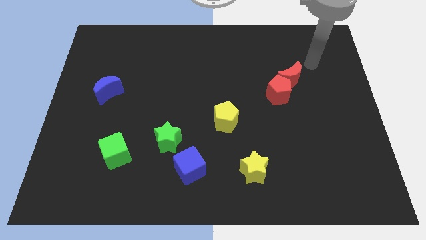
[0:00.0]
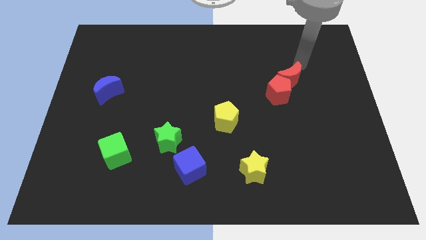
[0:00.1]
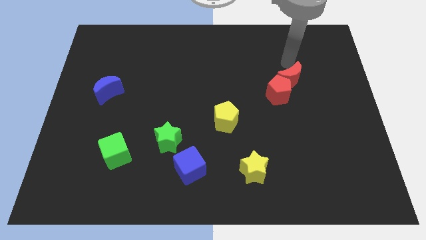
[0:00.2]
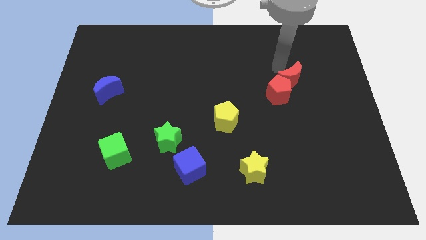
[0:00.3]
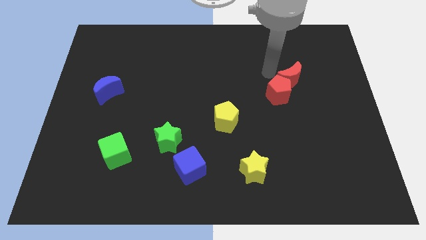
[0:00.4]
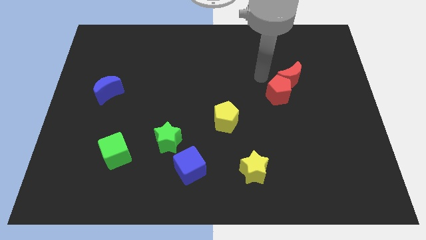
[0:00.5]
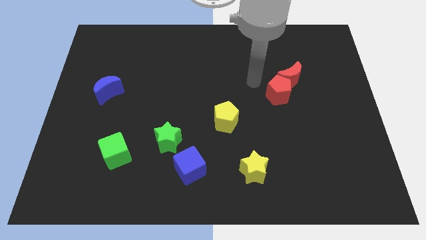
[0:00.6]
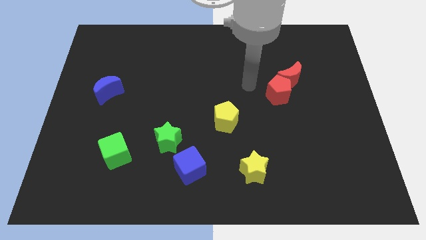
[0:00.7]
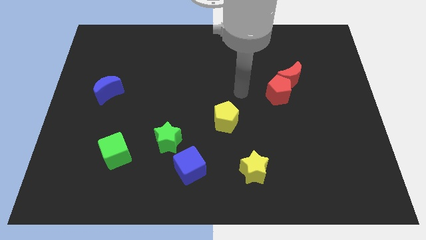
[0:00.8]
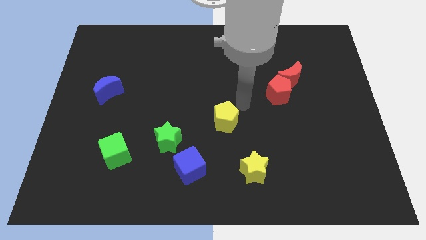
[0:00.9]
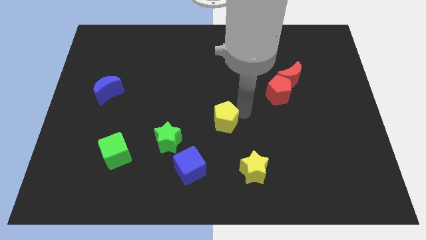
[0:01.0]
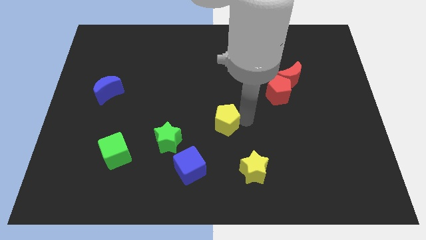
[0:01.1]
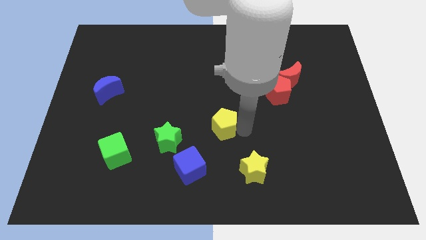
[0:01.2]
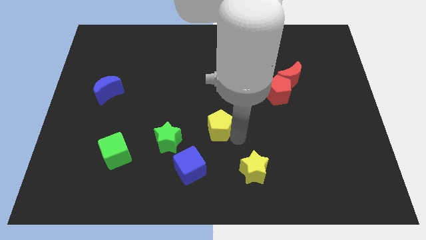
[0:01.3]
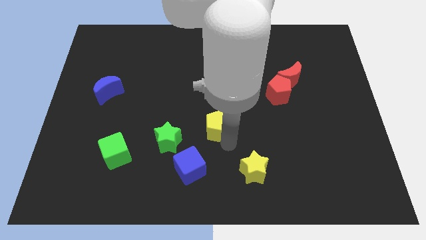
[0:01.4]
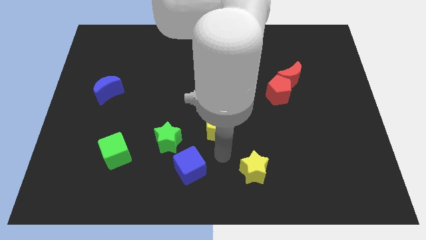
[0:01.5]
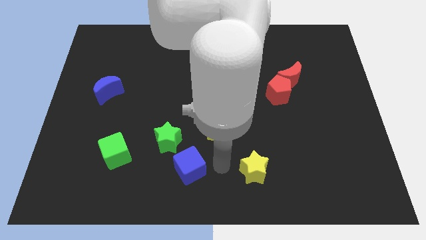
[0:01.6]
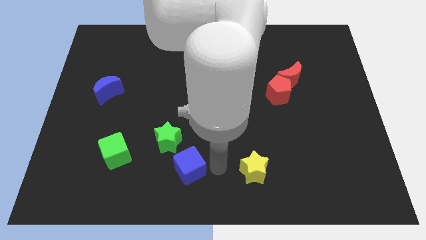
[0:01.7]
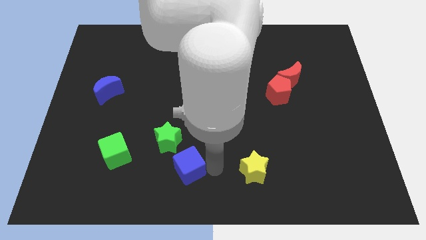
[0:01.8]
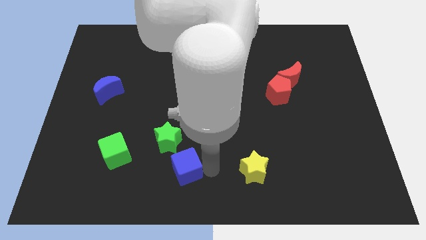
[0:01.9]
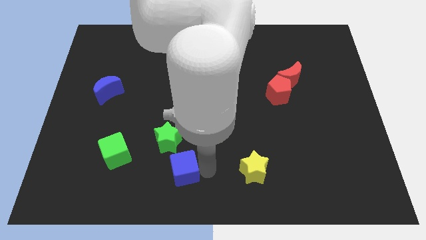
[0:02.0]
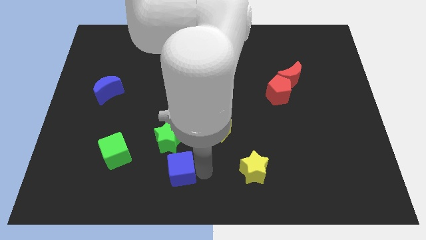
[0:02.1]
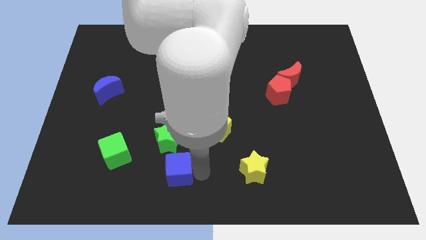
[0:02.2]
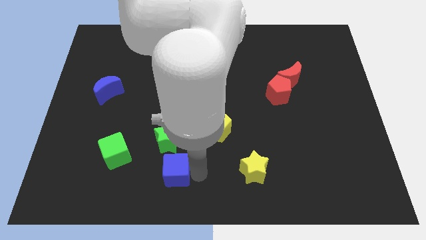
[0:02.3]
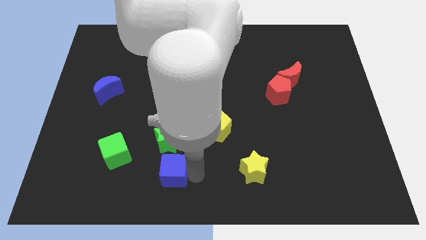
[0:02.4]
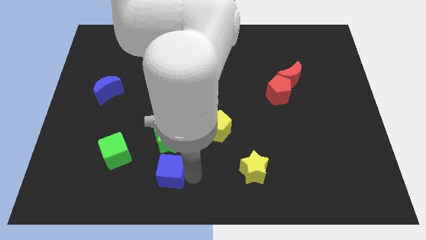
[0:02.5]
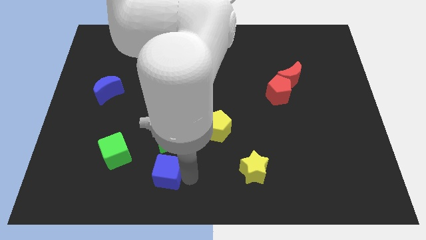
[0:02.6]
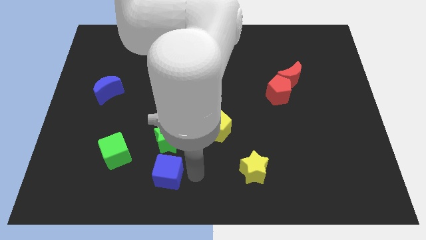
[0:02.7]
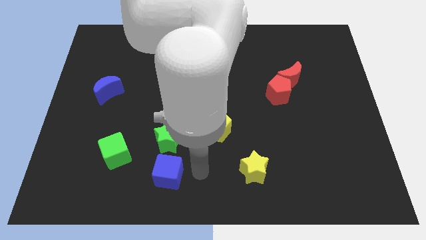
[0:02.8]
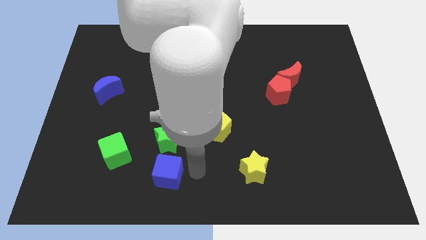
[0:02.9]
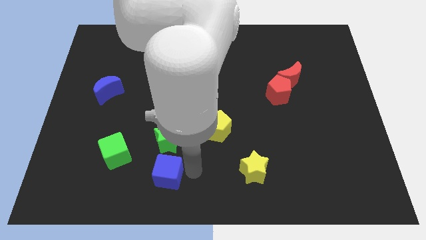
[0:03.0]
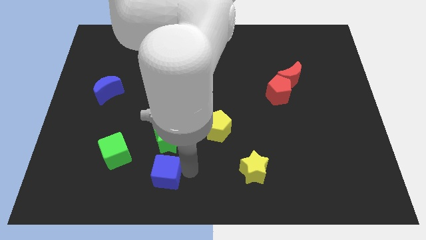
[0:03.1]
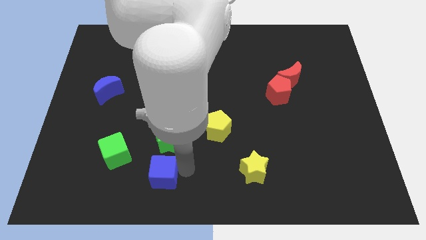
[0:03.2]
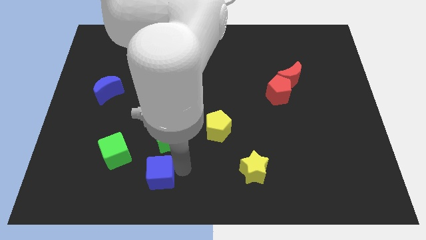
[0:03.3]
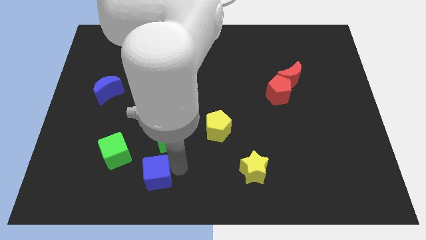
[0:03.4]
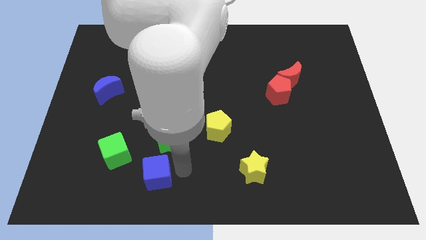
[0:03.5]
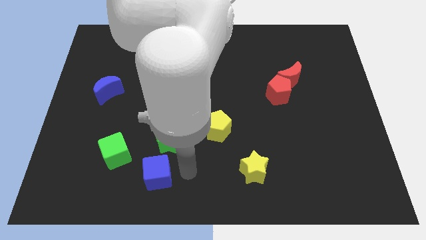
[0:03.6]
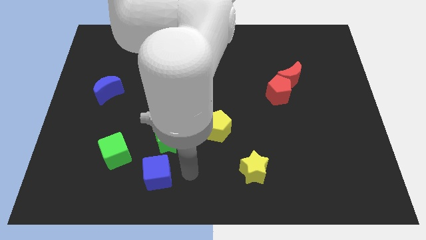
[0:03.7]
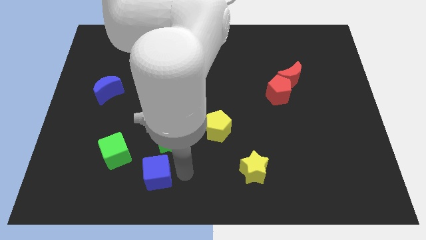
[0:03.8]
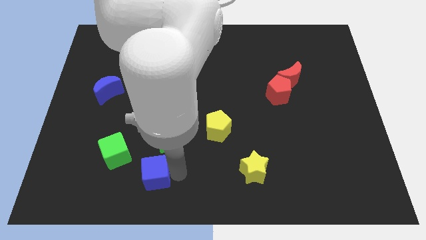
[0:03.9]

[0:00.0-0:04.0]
slightly move the blue cube left

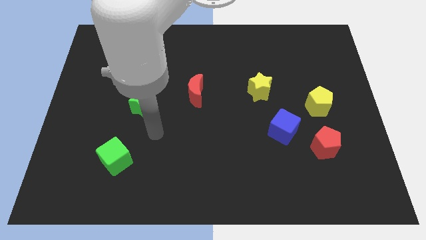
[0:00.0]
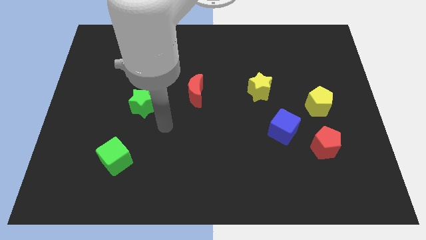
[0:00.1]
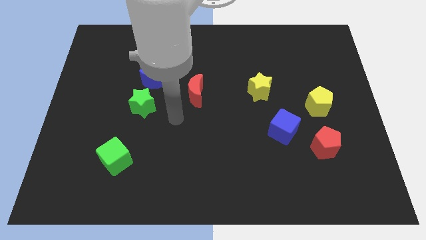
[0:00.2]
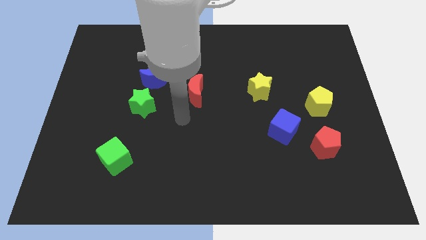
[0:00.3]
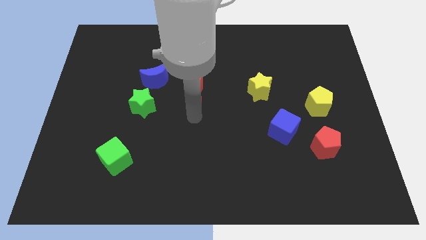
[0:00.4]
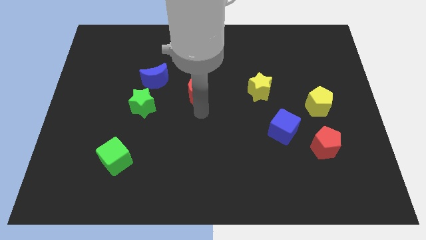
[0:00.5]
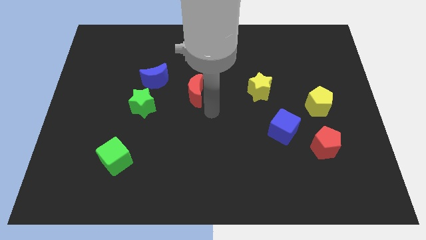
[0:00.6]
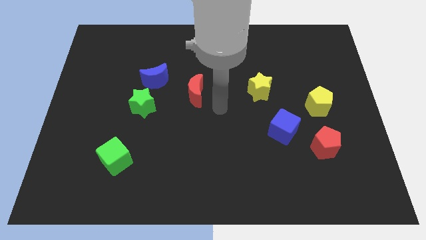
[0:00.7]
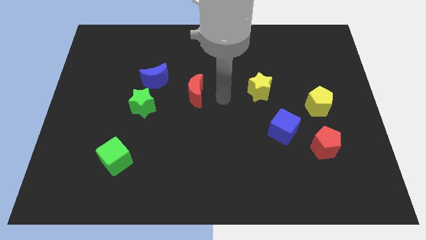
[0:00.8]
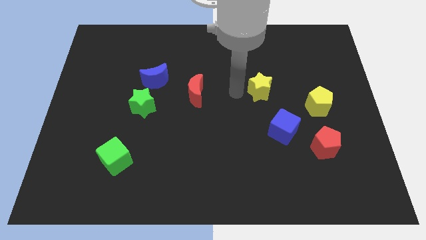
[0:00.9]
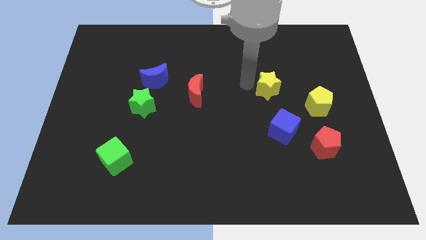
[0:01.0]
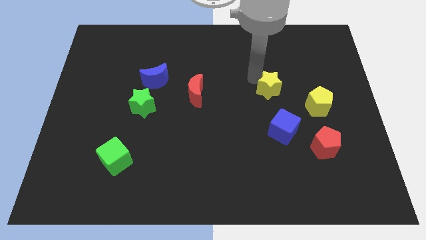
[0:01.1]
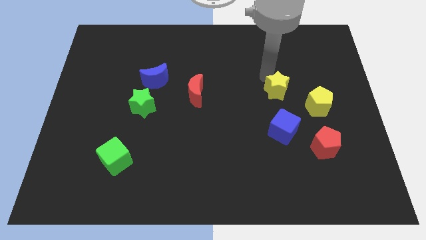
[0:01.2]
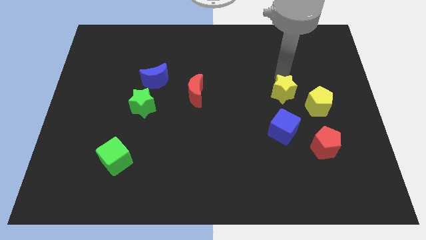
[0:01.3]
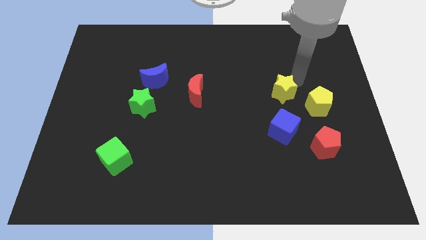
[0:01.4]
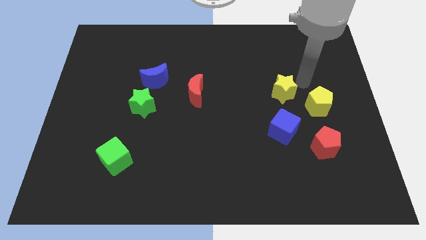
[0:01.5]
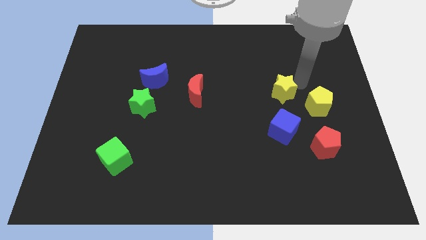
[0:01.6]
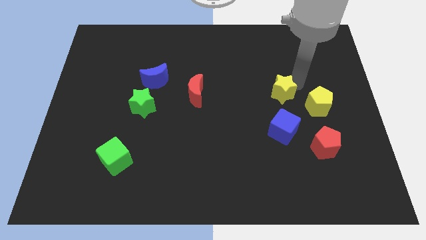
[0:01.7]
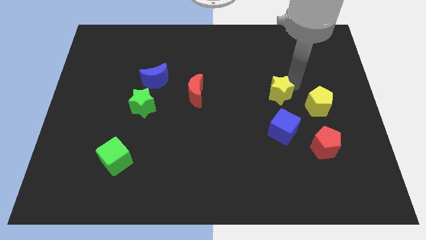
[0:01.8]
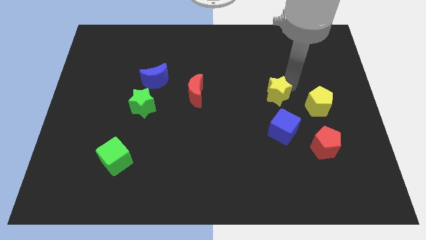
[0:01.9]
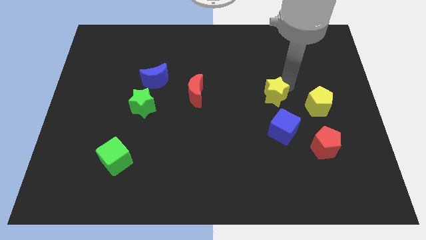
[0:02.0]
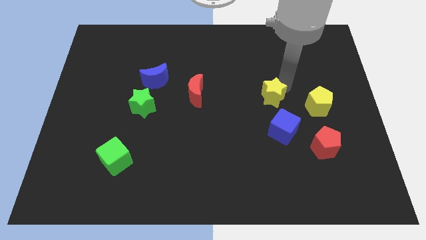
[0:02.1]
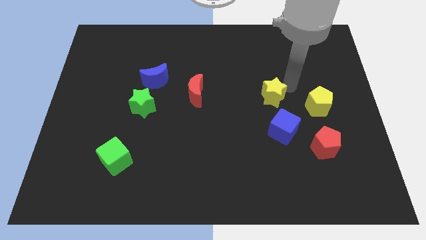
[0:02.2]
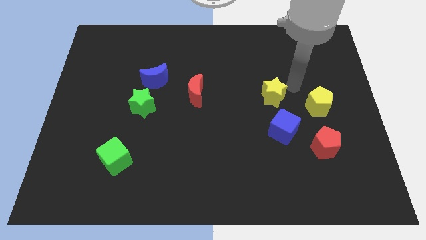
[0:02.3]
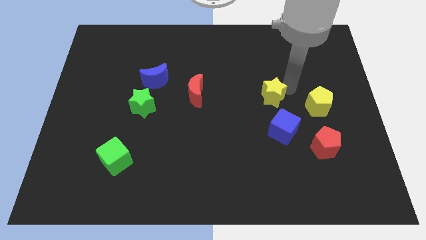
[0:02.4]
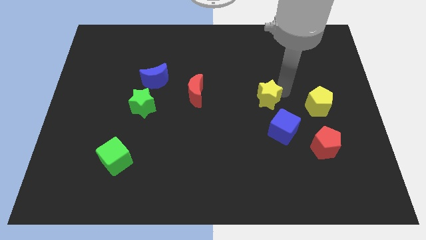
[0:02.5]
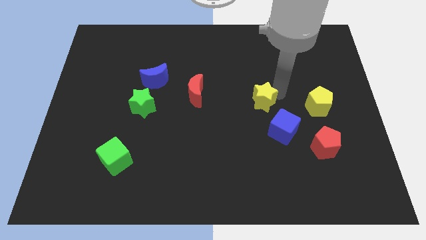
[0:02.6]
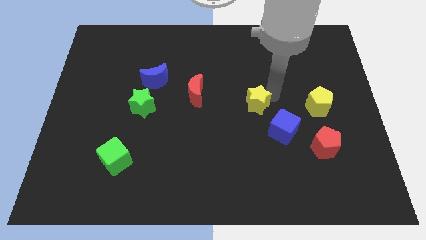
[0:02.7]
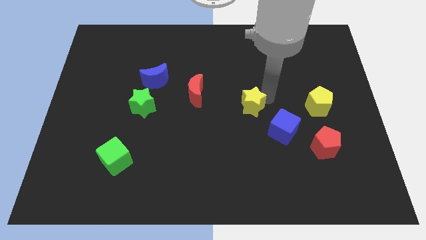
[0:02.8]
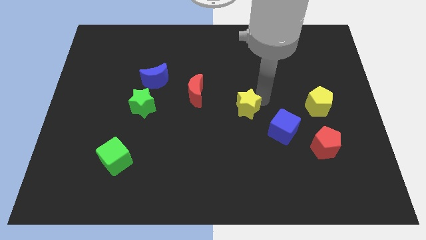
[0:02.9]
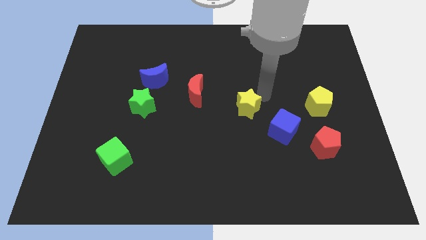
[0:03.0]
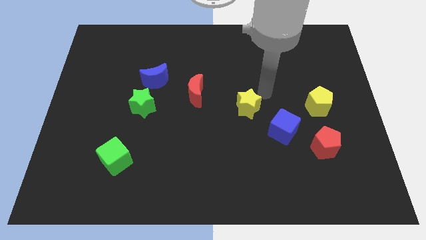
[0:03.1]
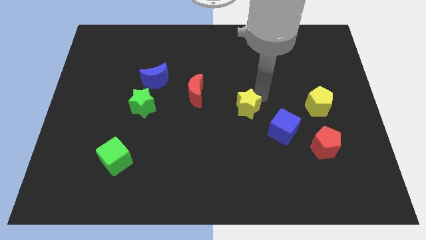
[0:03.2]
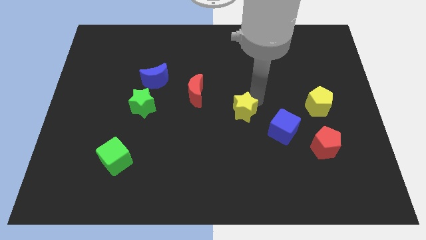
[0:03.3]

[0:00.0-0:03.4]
slightly slide the yellow star diagonally down and left

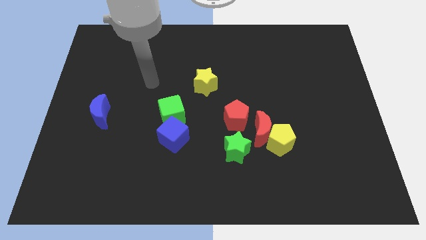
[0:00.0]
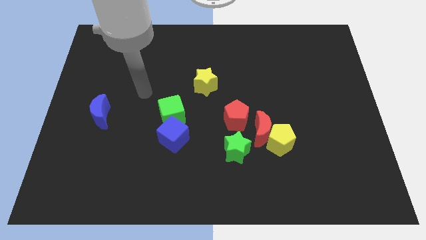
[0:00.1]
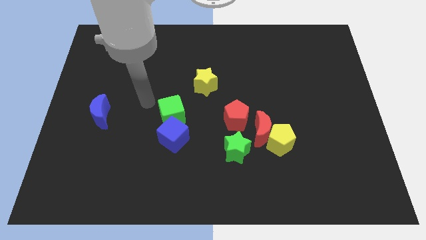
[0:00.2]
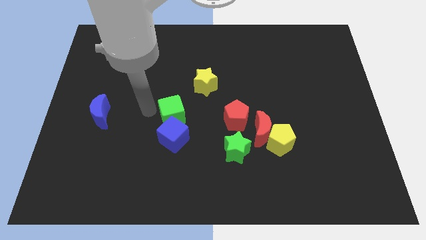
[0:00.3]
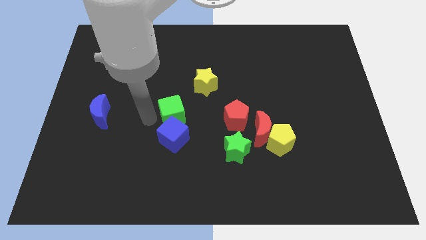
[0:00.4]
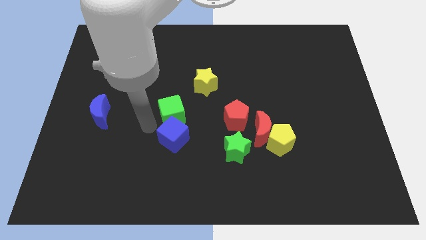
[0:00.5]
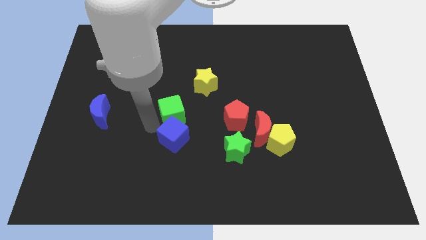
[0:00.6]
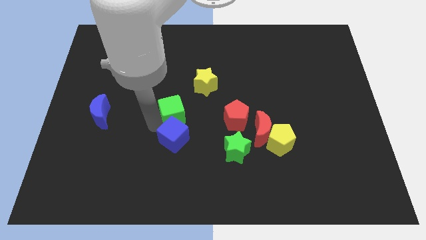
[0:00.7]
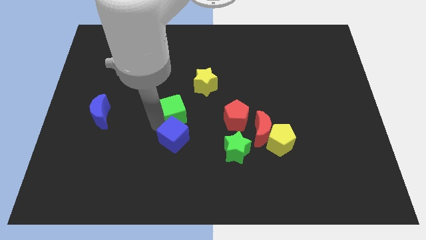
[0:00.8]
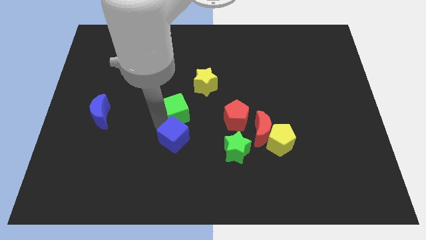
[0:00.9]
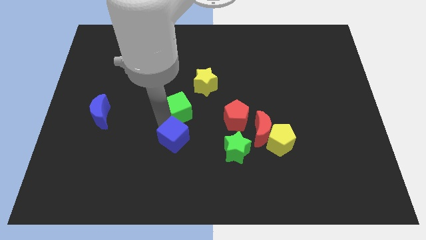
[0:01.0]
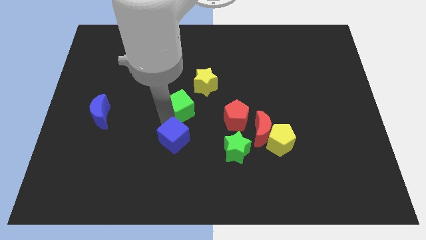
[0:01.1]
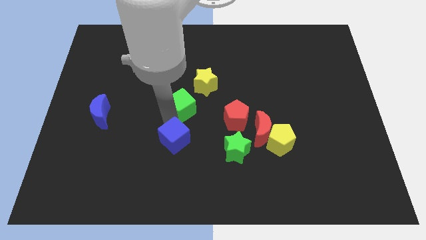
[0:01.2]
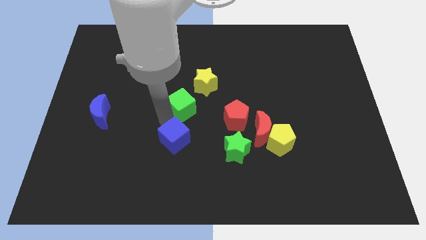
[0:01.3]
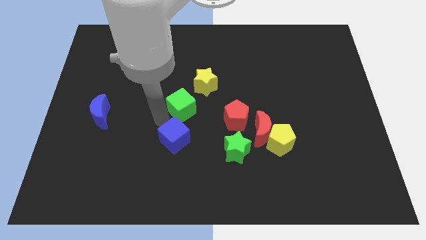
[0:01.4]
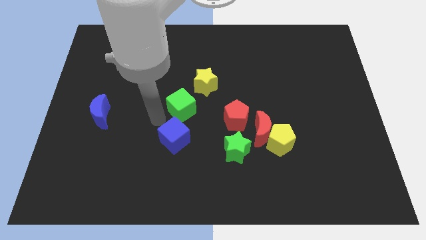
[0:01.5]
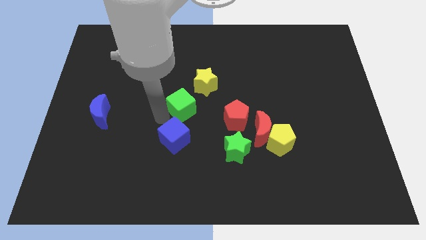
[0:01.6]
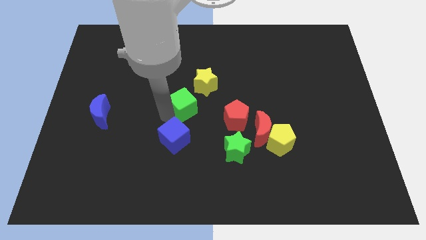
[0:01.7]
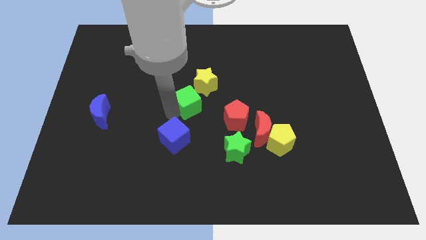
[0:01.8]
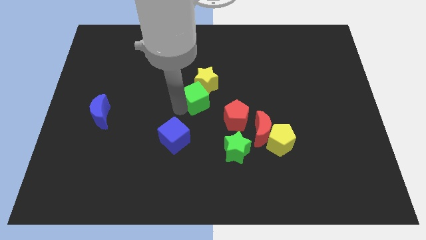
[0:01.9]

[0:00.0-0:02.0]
slightly move the green cube diagonally up and right
